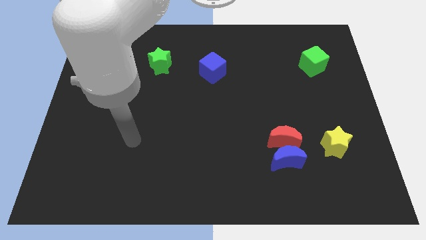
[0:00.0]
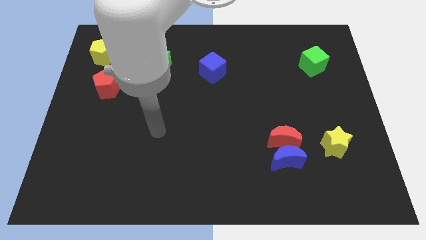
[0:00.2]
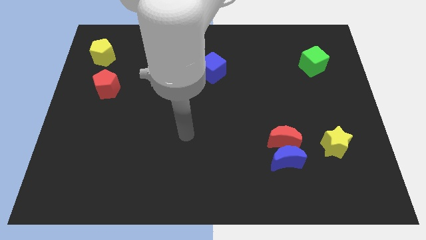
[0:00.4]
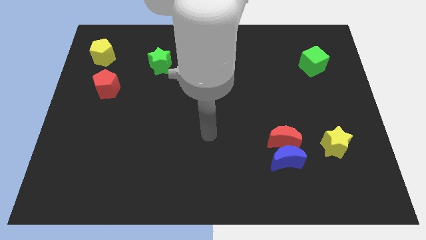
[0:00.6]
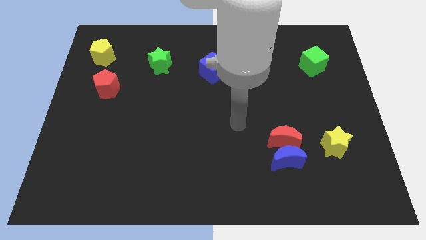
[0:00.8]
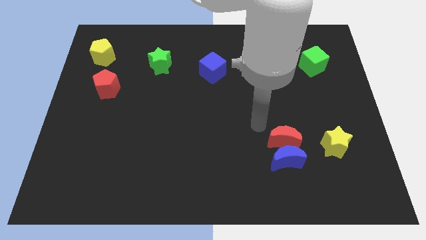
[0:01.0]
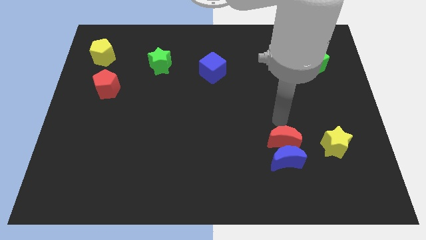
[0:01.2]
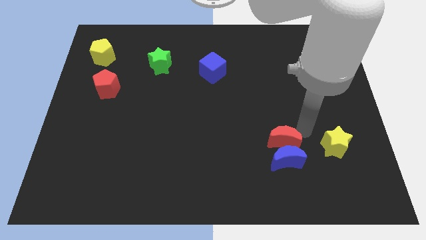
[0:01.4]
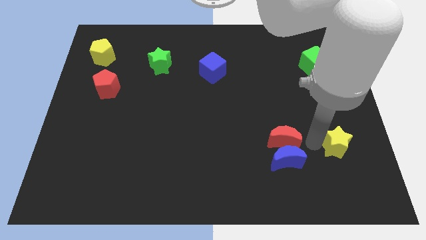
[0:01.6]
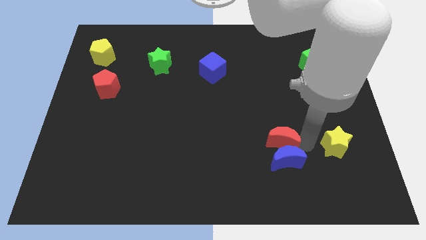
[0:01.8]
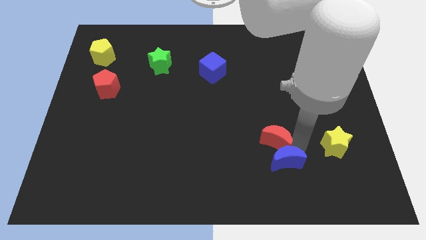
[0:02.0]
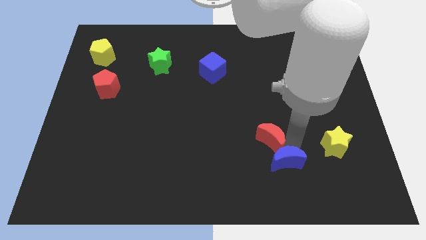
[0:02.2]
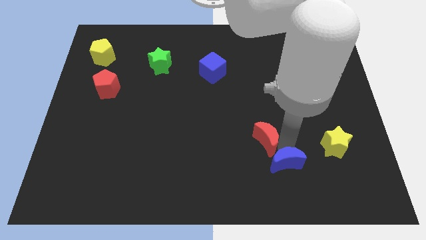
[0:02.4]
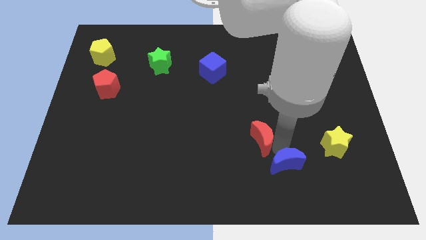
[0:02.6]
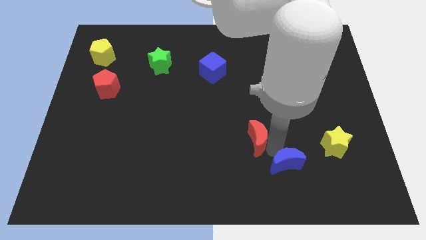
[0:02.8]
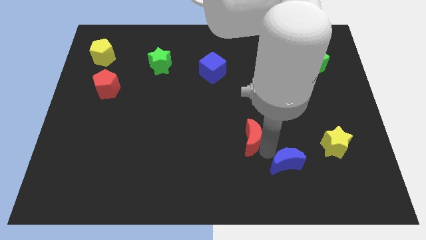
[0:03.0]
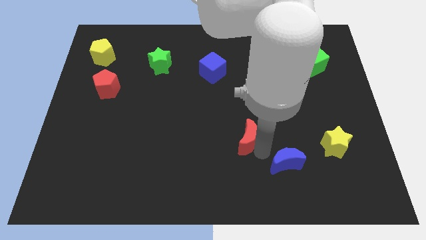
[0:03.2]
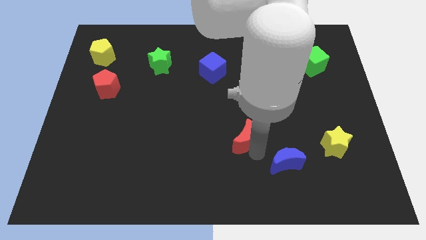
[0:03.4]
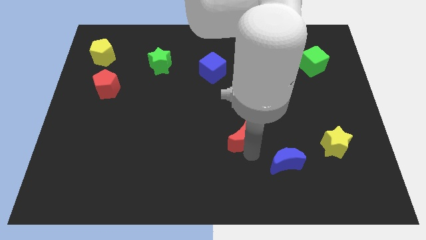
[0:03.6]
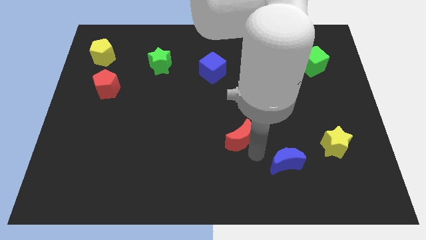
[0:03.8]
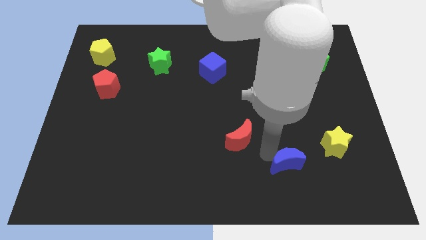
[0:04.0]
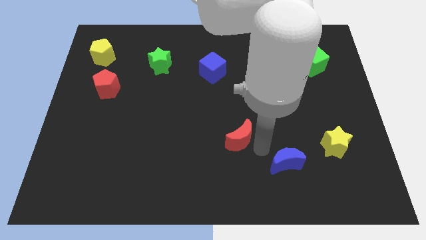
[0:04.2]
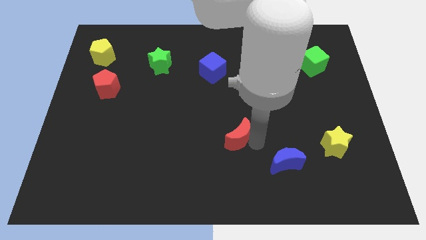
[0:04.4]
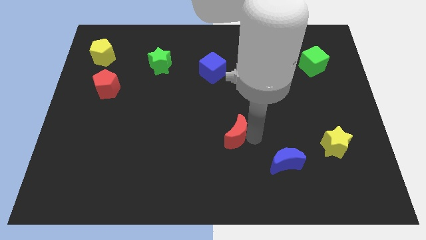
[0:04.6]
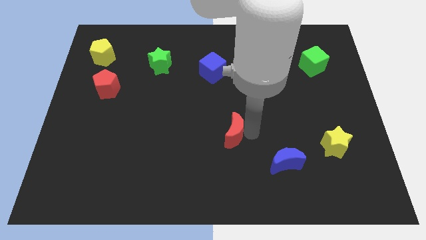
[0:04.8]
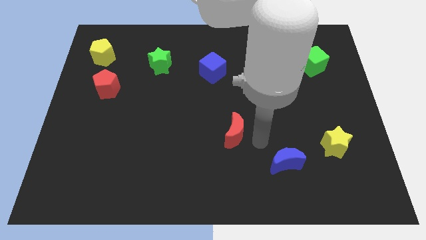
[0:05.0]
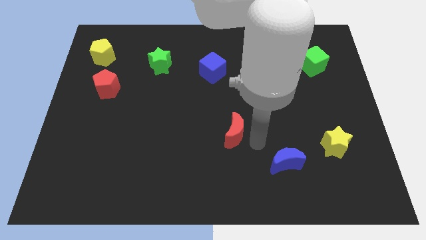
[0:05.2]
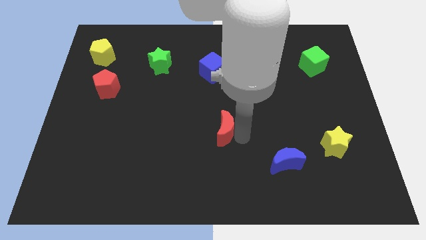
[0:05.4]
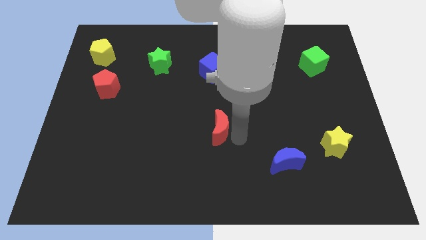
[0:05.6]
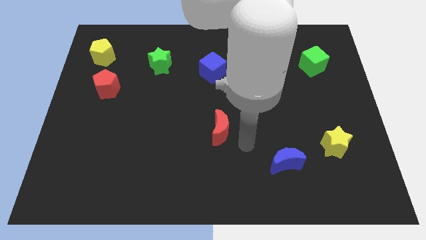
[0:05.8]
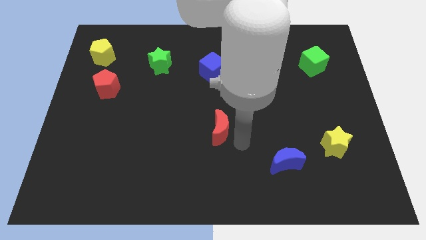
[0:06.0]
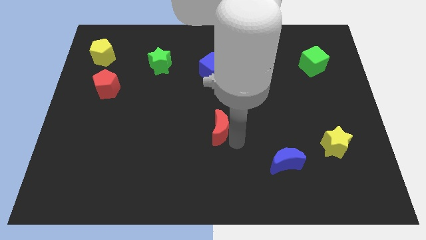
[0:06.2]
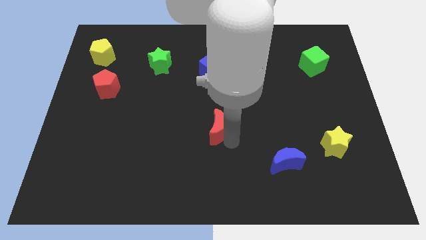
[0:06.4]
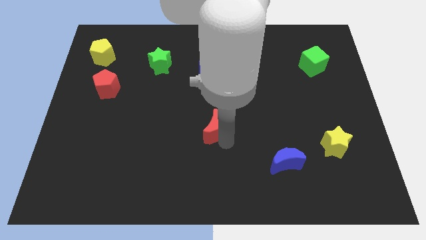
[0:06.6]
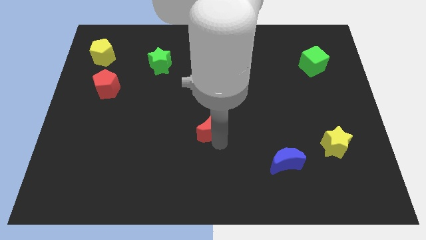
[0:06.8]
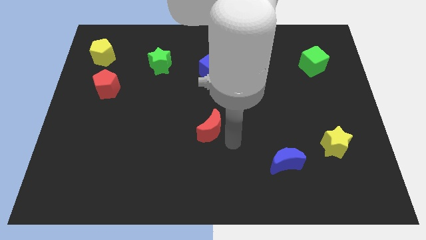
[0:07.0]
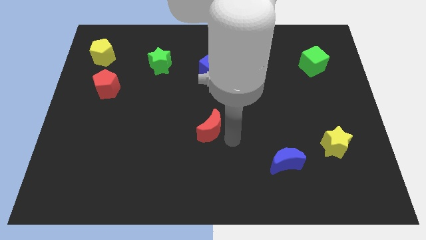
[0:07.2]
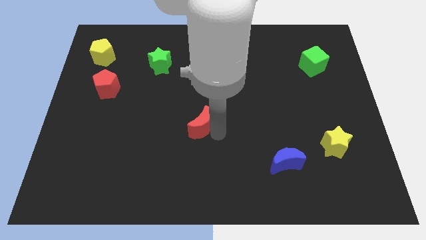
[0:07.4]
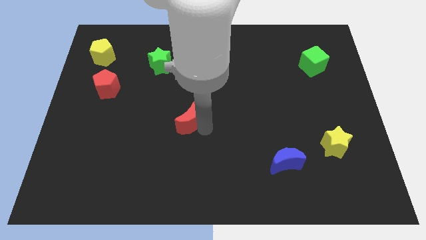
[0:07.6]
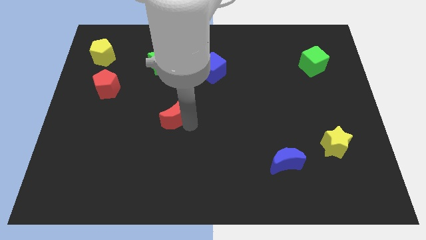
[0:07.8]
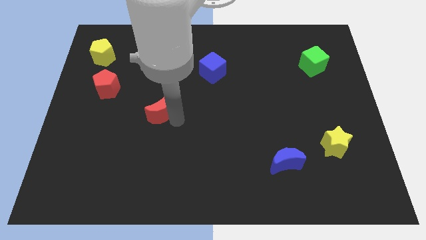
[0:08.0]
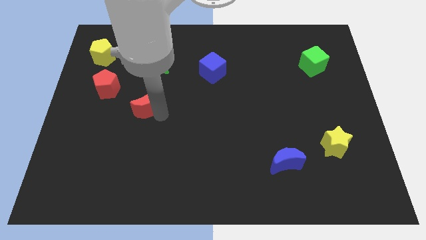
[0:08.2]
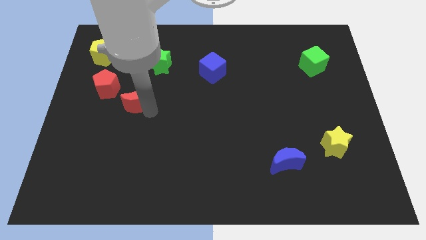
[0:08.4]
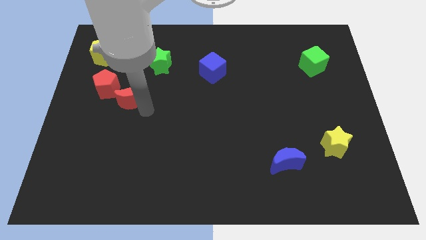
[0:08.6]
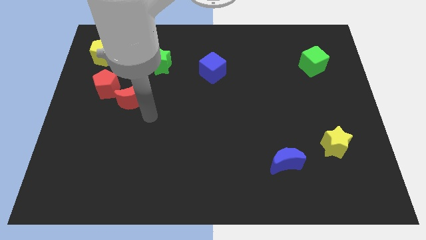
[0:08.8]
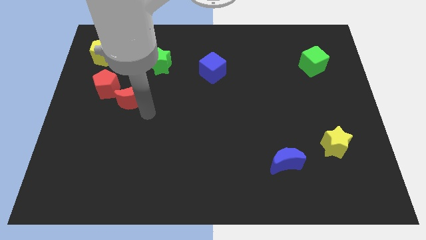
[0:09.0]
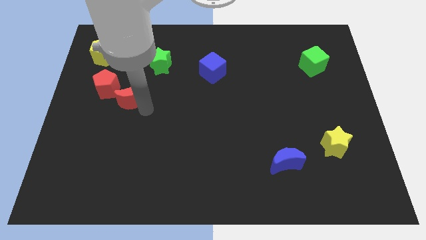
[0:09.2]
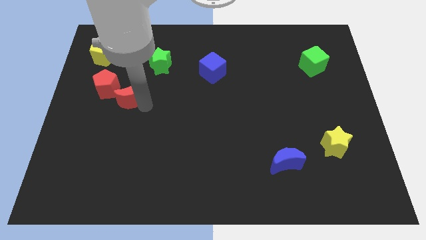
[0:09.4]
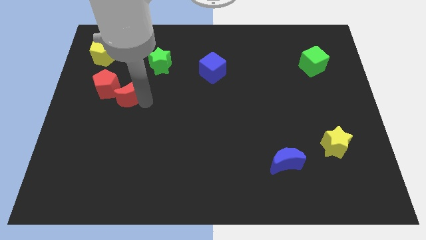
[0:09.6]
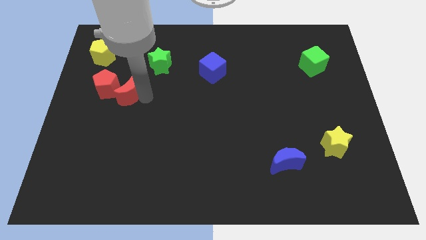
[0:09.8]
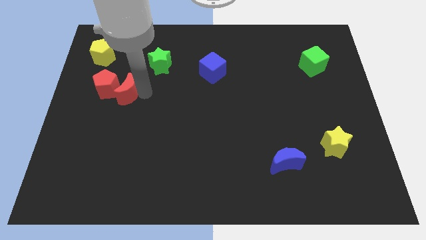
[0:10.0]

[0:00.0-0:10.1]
push the red moon next to the red pentagon

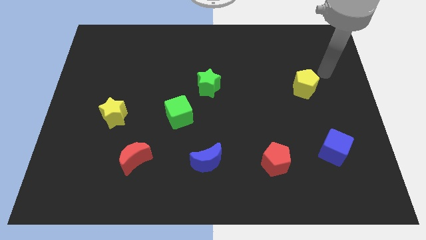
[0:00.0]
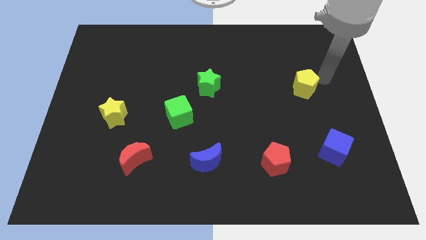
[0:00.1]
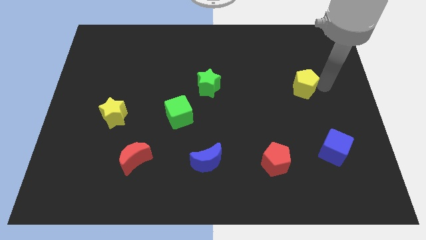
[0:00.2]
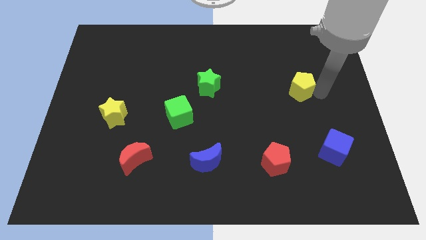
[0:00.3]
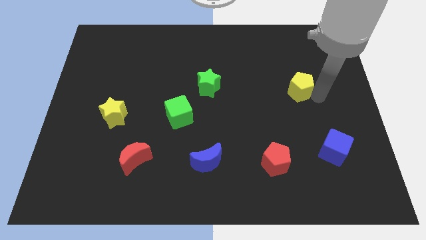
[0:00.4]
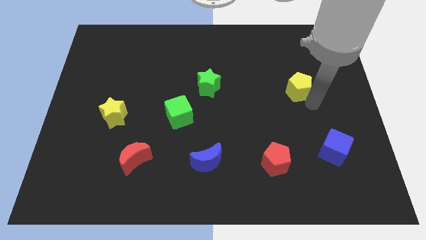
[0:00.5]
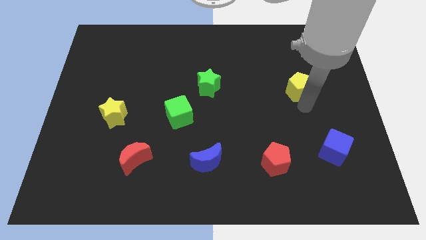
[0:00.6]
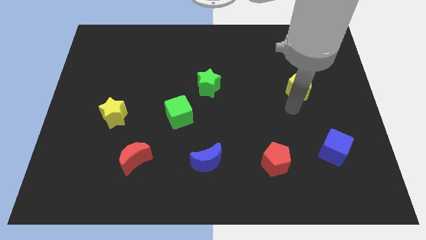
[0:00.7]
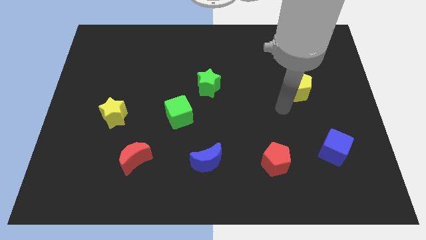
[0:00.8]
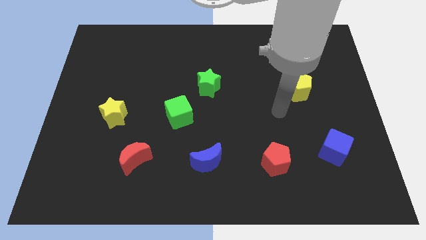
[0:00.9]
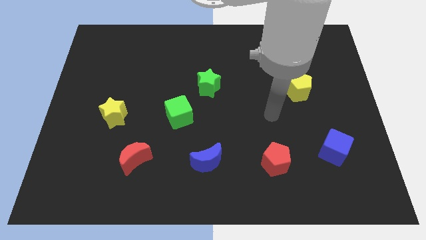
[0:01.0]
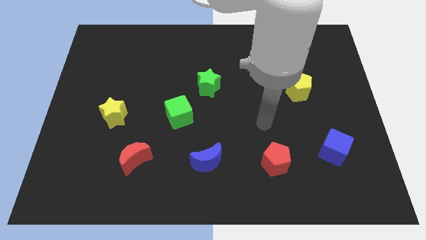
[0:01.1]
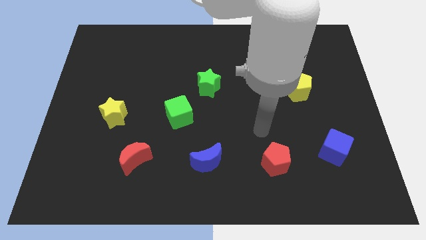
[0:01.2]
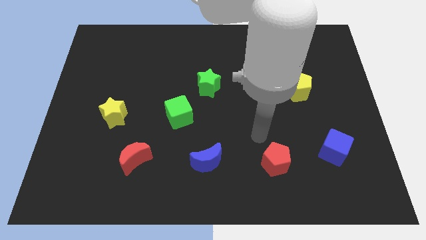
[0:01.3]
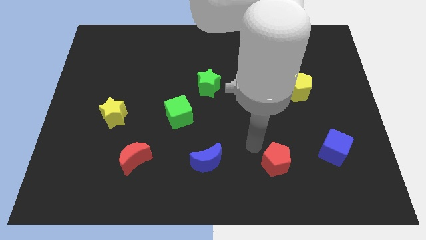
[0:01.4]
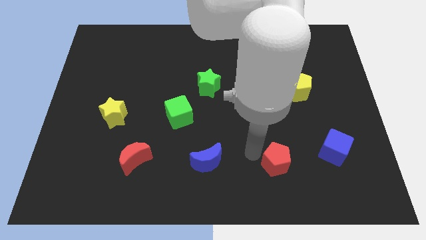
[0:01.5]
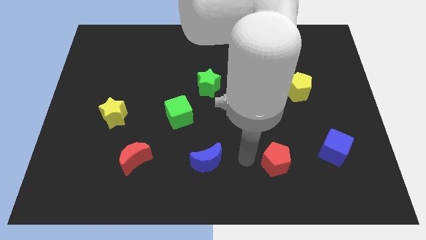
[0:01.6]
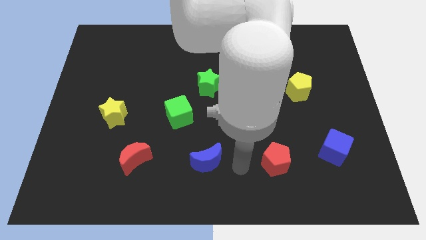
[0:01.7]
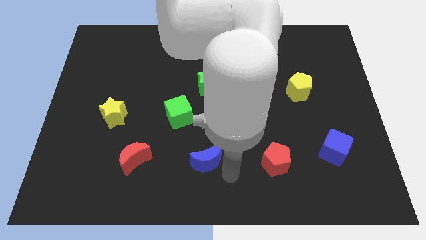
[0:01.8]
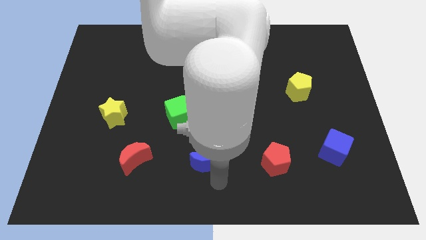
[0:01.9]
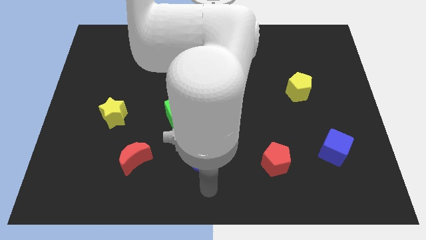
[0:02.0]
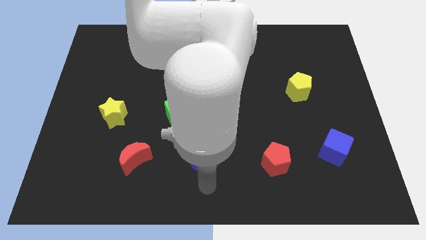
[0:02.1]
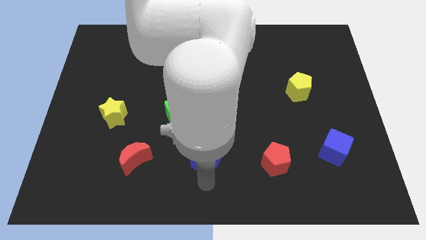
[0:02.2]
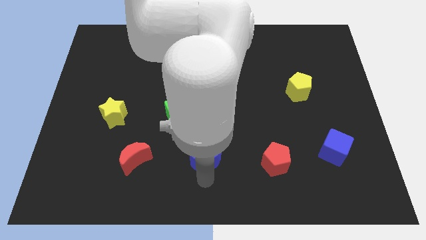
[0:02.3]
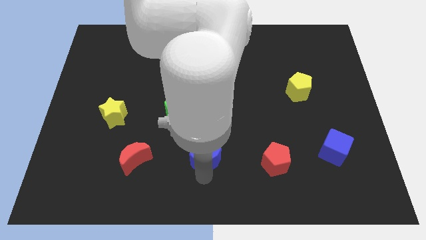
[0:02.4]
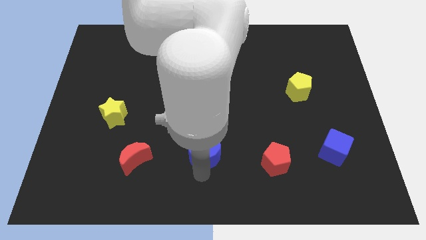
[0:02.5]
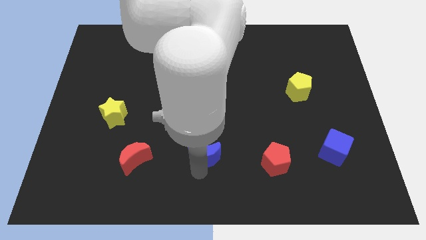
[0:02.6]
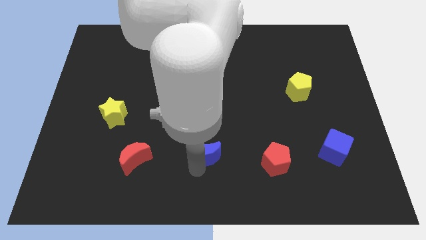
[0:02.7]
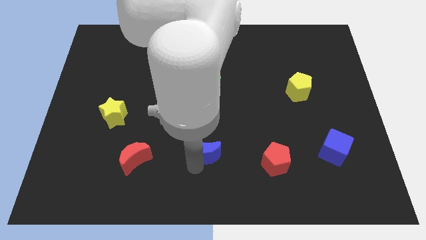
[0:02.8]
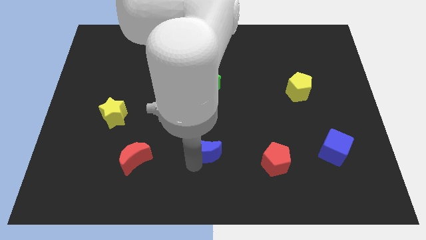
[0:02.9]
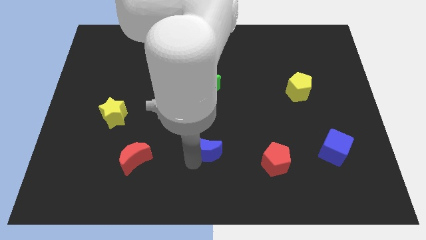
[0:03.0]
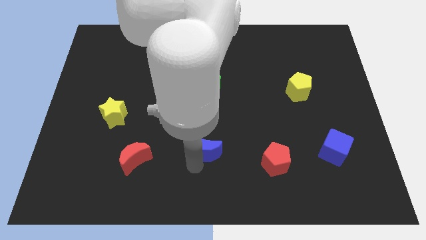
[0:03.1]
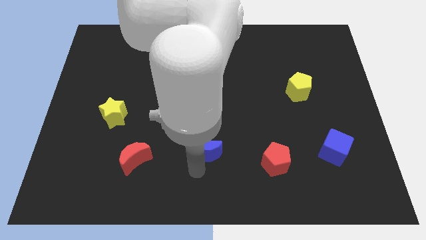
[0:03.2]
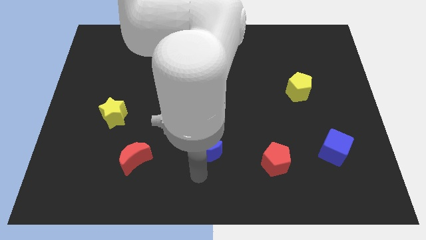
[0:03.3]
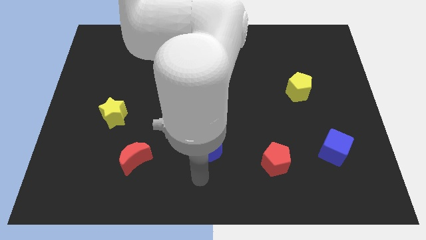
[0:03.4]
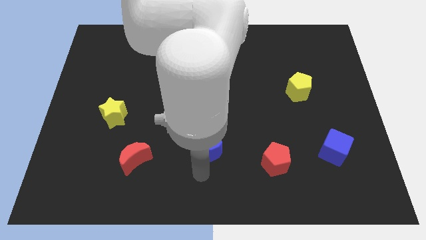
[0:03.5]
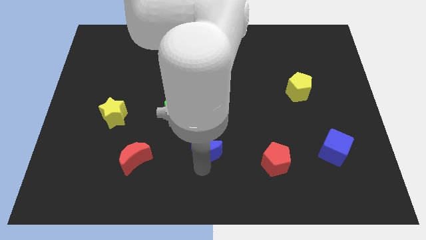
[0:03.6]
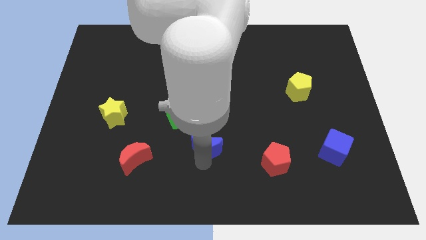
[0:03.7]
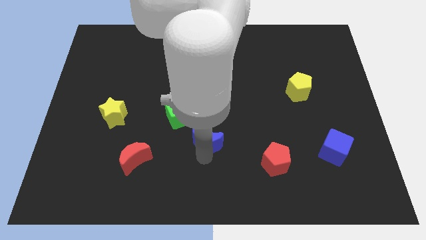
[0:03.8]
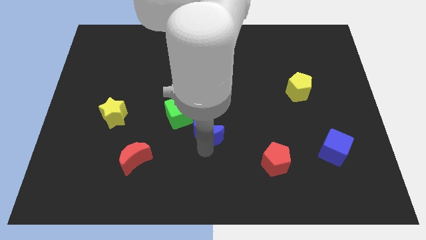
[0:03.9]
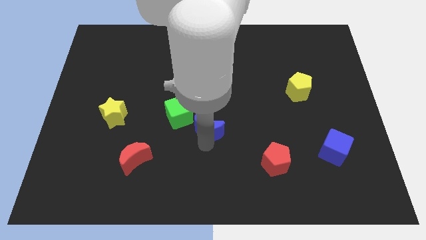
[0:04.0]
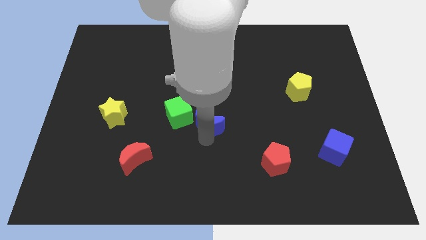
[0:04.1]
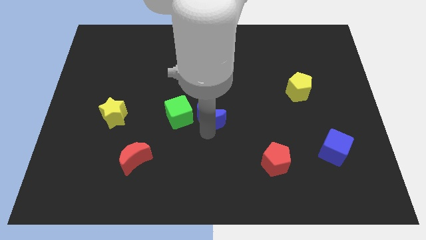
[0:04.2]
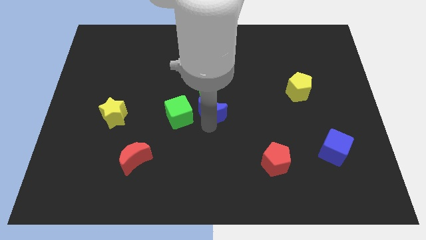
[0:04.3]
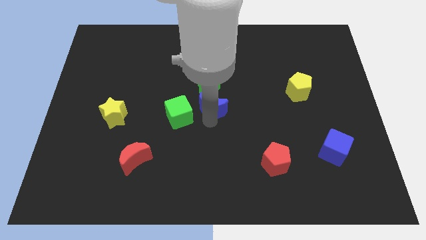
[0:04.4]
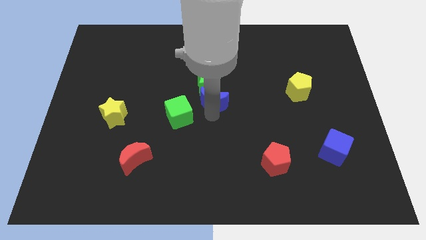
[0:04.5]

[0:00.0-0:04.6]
push the blue moon towards the green star
